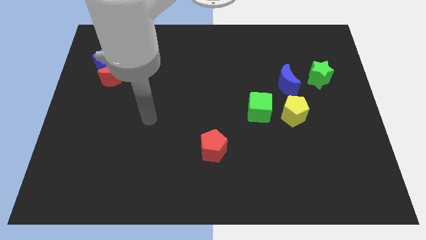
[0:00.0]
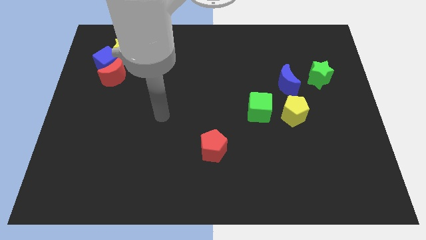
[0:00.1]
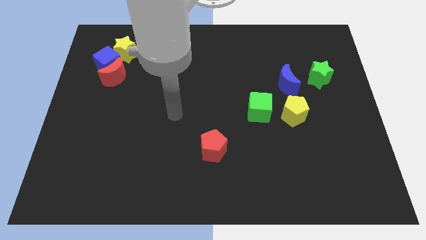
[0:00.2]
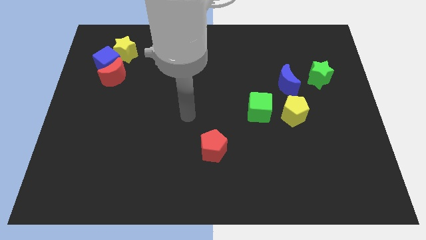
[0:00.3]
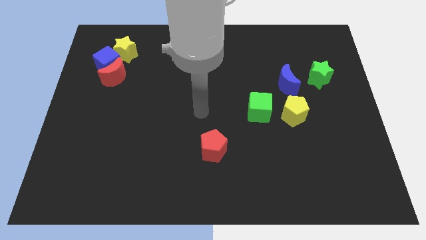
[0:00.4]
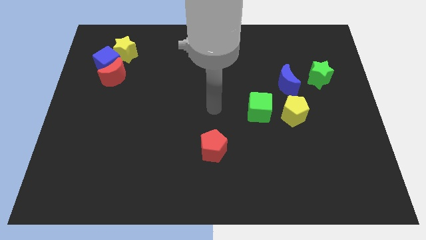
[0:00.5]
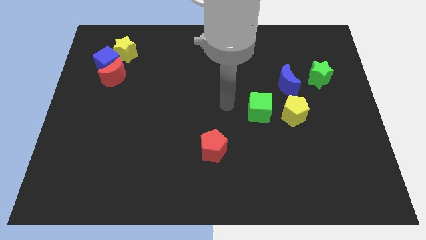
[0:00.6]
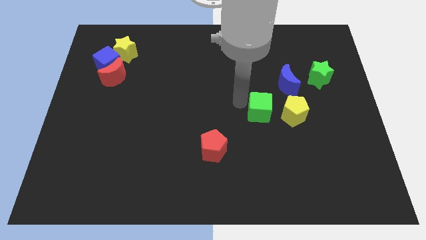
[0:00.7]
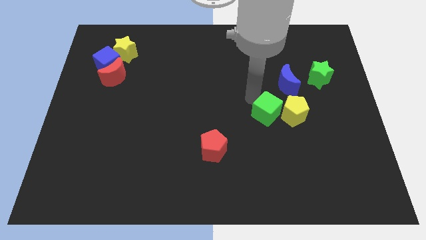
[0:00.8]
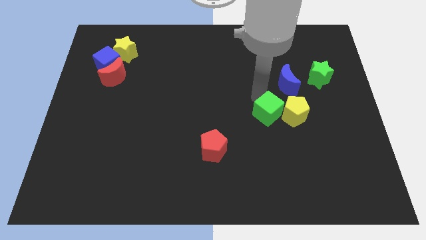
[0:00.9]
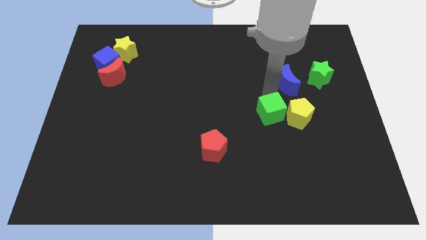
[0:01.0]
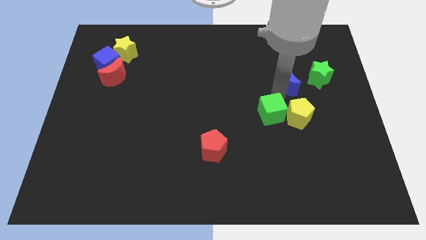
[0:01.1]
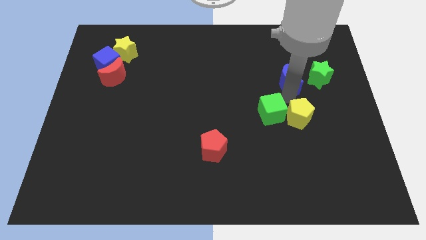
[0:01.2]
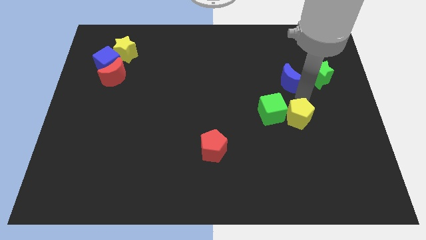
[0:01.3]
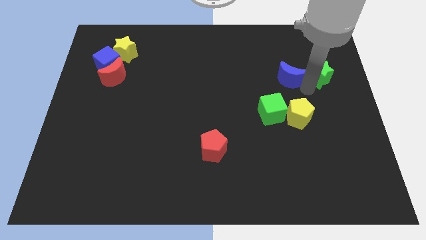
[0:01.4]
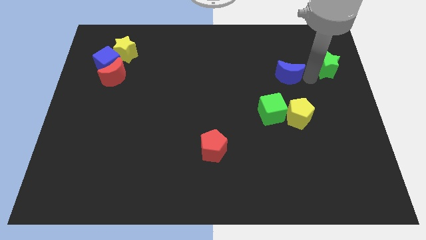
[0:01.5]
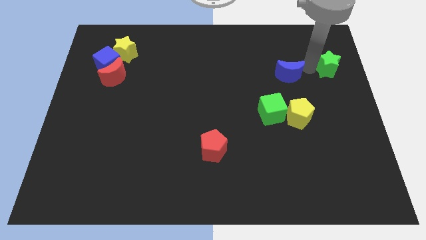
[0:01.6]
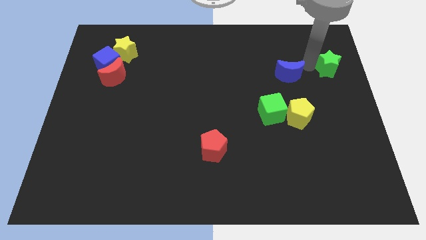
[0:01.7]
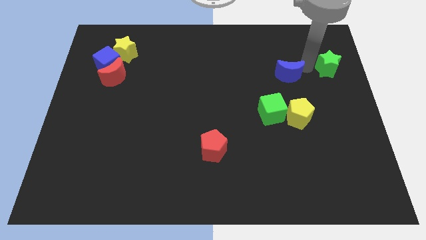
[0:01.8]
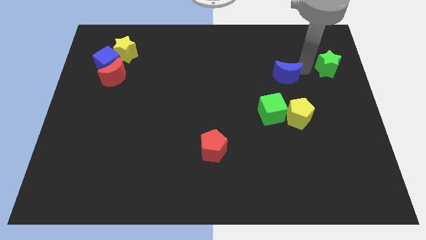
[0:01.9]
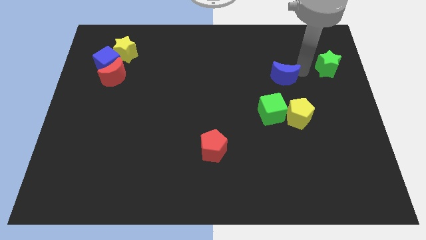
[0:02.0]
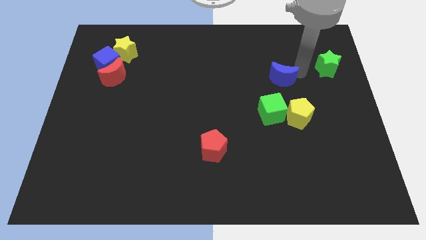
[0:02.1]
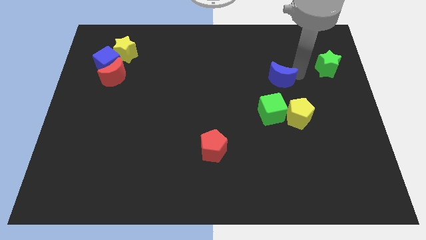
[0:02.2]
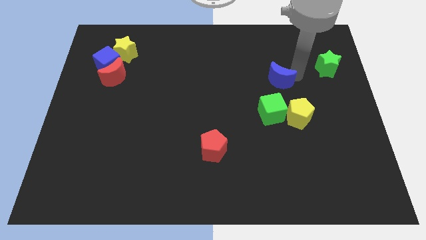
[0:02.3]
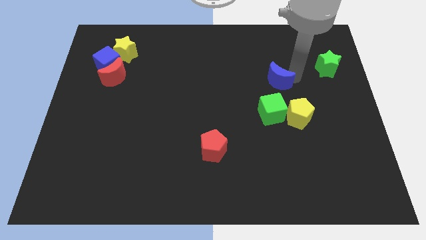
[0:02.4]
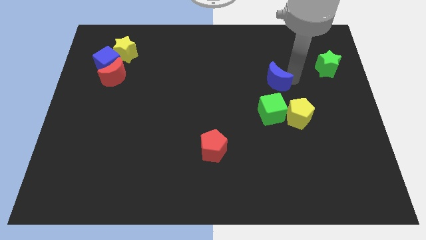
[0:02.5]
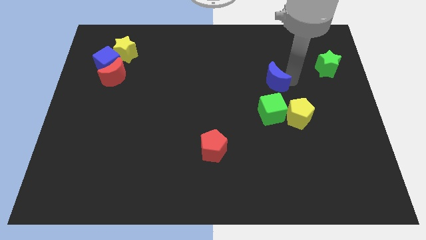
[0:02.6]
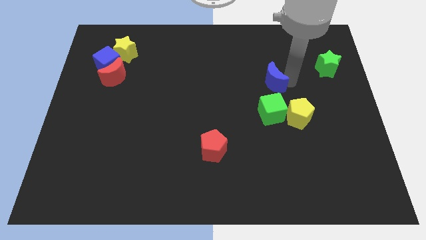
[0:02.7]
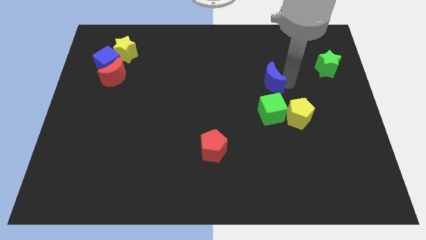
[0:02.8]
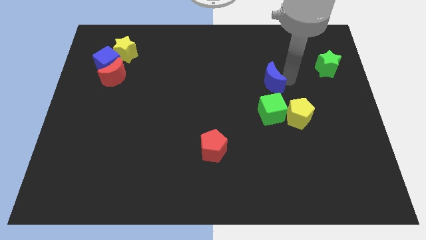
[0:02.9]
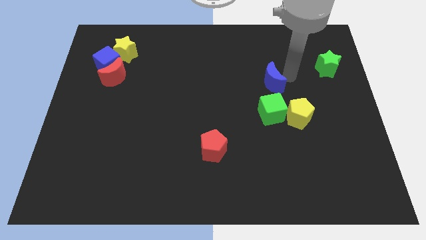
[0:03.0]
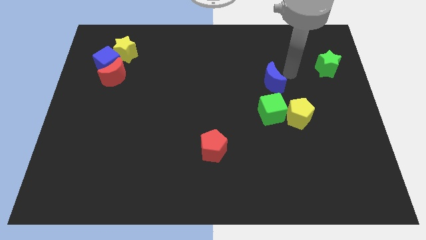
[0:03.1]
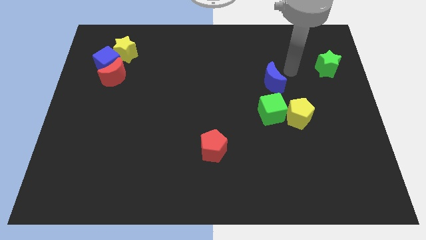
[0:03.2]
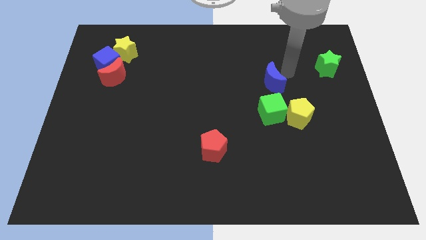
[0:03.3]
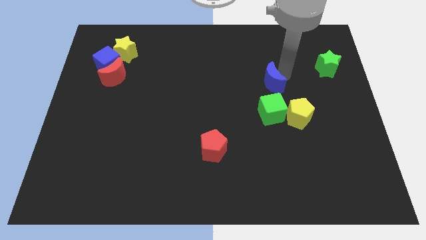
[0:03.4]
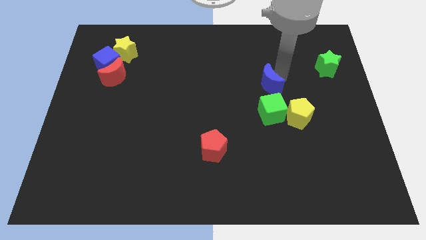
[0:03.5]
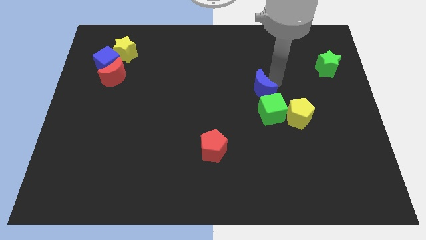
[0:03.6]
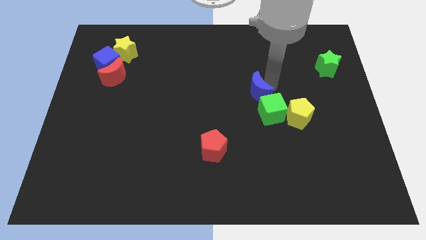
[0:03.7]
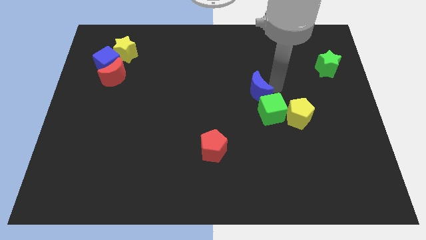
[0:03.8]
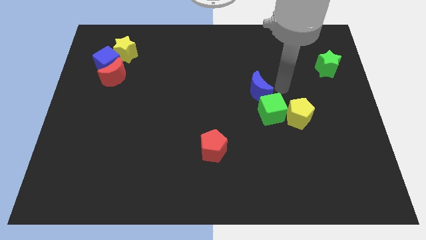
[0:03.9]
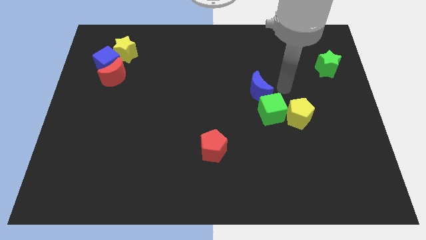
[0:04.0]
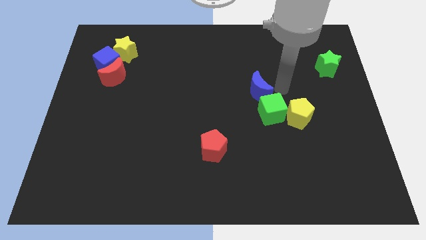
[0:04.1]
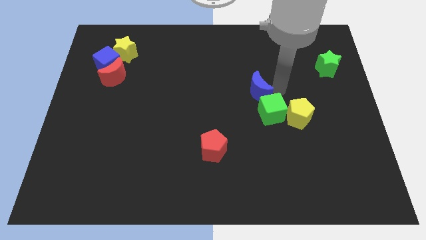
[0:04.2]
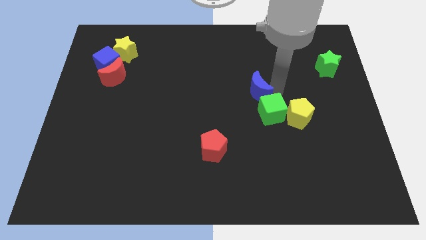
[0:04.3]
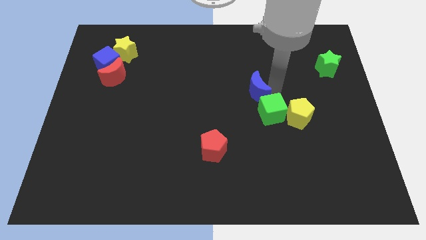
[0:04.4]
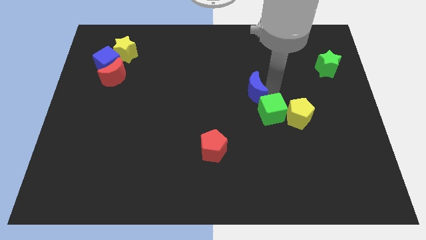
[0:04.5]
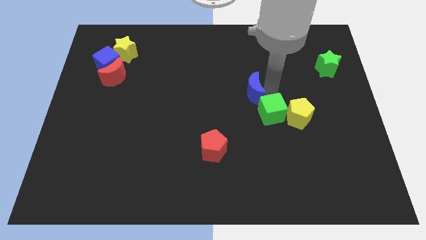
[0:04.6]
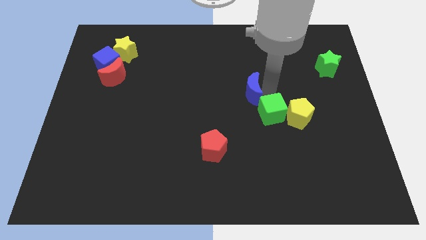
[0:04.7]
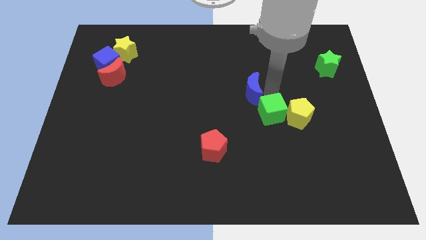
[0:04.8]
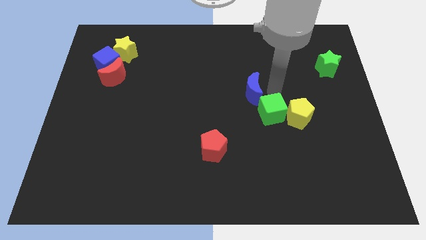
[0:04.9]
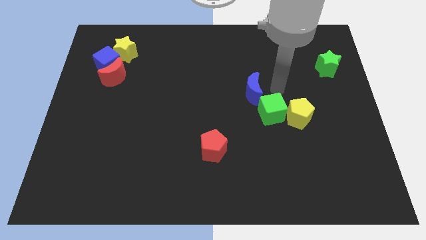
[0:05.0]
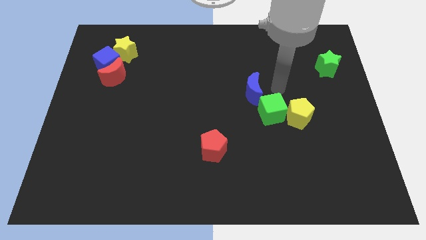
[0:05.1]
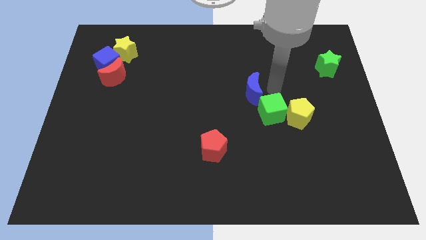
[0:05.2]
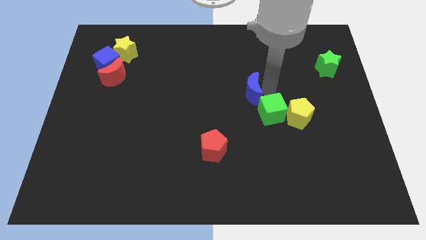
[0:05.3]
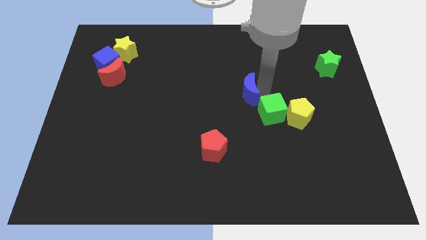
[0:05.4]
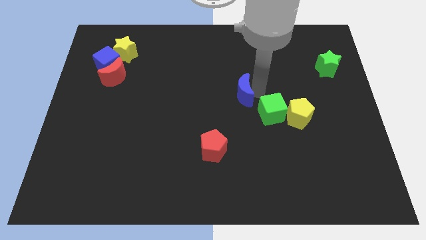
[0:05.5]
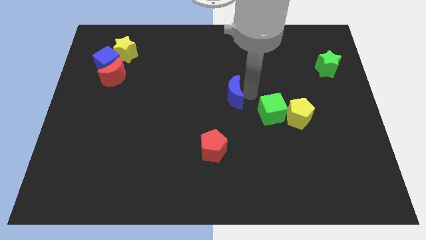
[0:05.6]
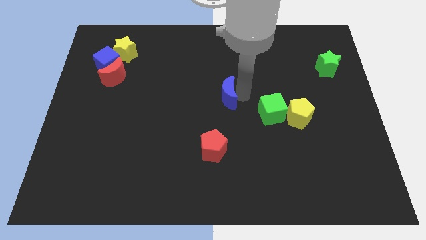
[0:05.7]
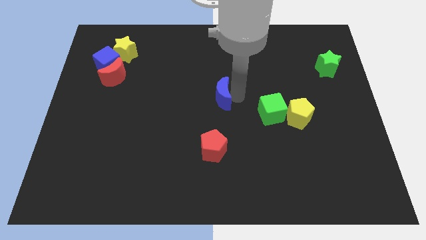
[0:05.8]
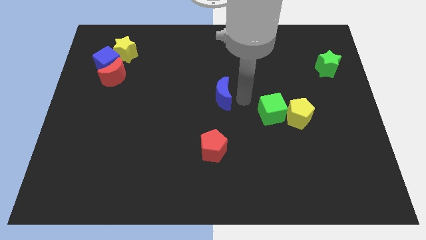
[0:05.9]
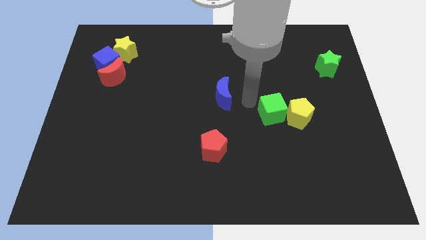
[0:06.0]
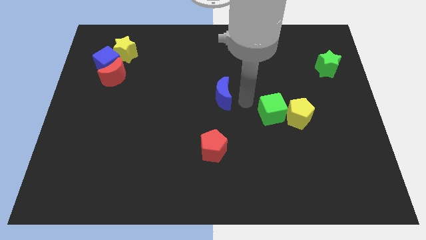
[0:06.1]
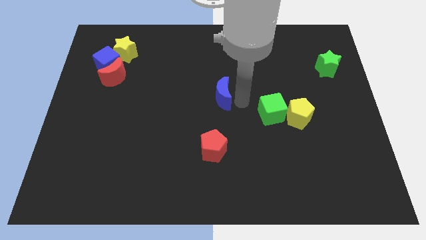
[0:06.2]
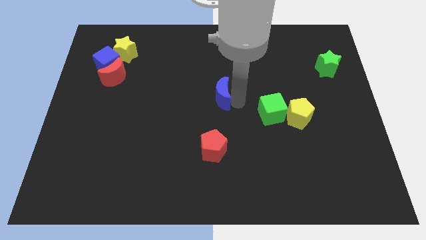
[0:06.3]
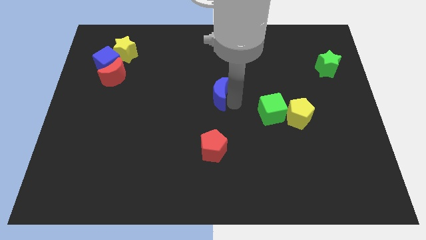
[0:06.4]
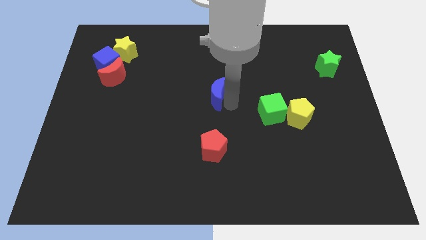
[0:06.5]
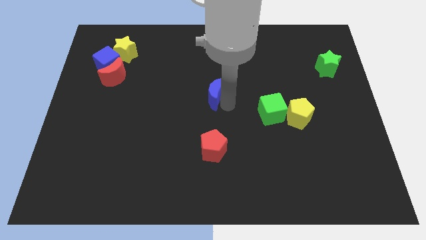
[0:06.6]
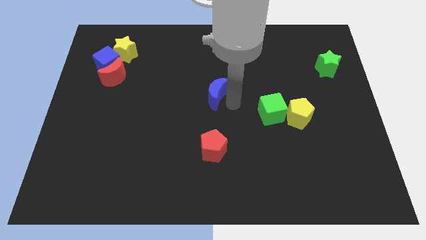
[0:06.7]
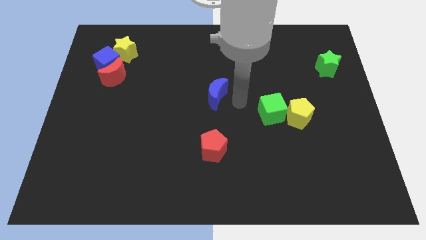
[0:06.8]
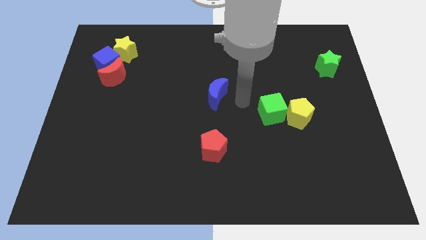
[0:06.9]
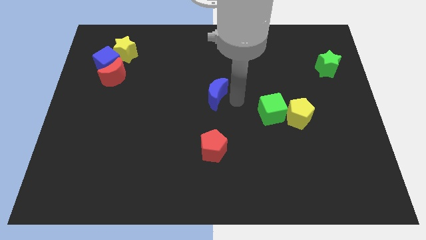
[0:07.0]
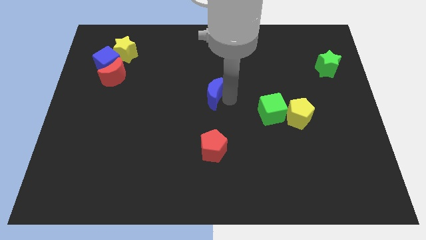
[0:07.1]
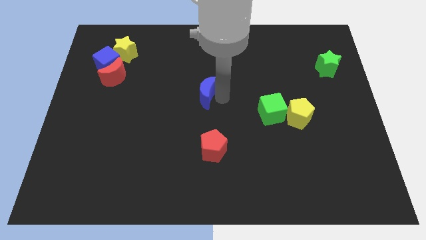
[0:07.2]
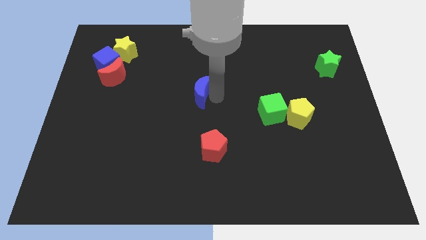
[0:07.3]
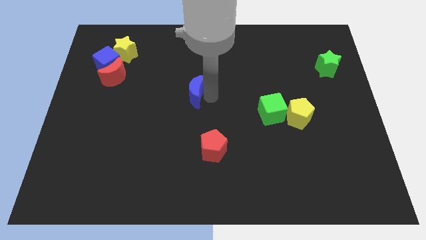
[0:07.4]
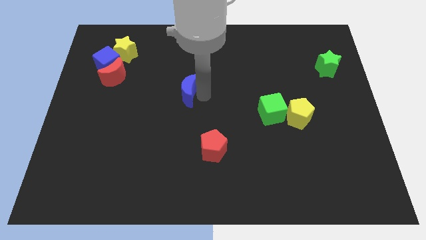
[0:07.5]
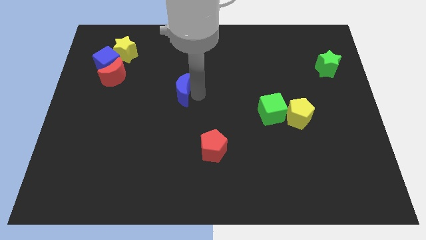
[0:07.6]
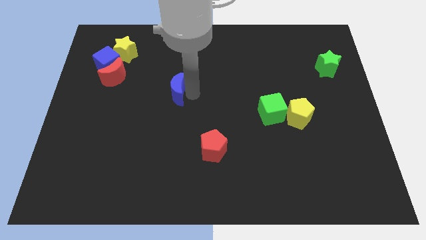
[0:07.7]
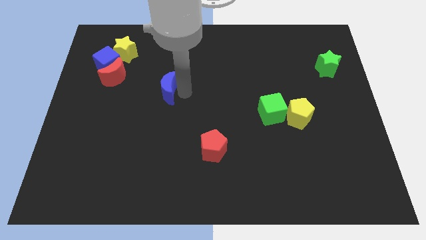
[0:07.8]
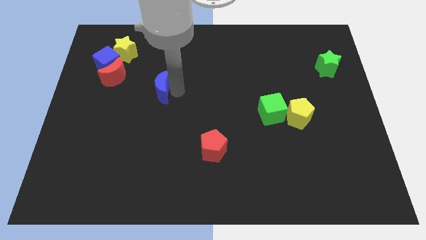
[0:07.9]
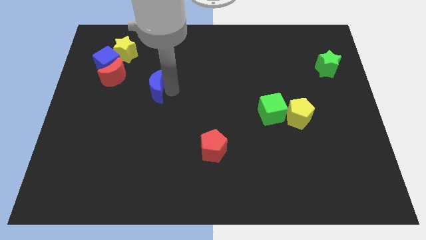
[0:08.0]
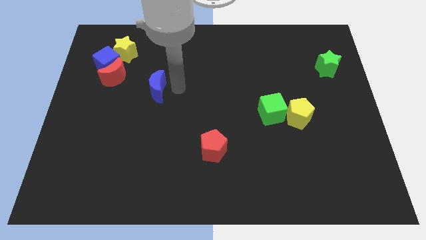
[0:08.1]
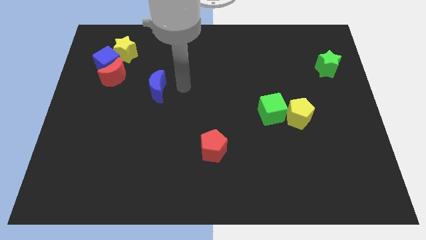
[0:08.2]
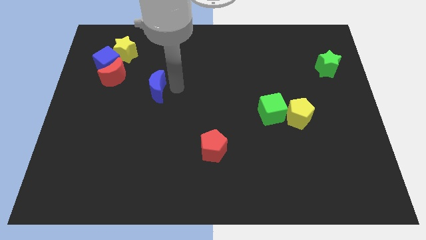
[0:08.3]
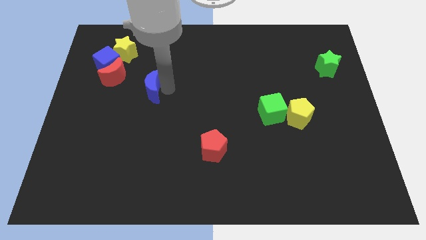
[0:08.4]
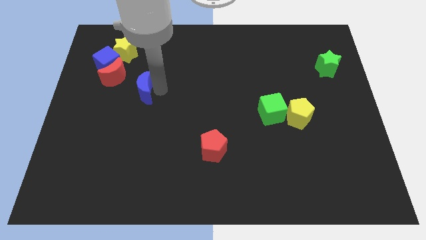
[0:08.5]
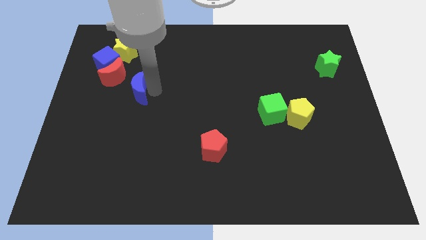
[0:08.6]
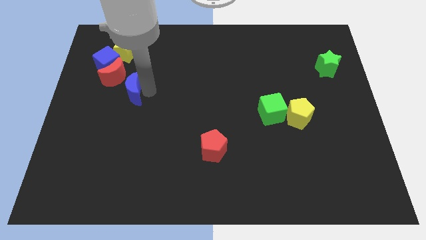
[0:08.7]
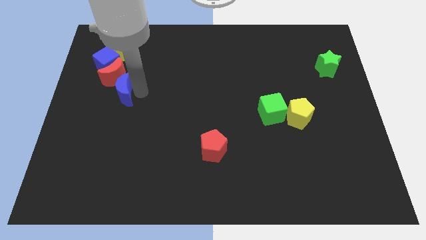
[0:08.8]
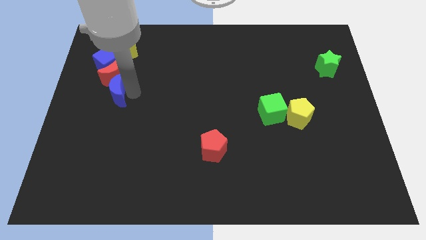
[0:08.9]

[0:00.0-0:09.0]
push the blue moon below the blue cube
